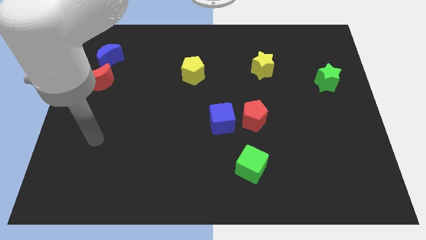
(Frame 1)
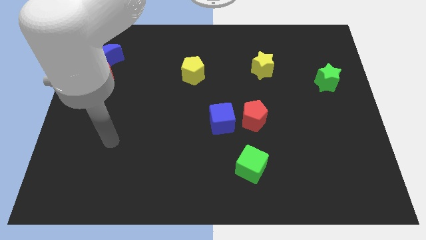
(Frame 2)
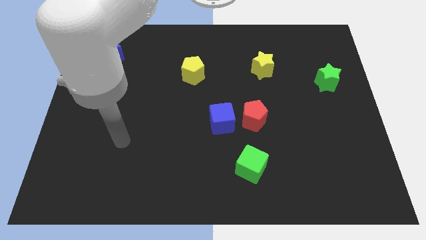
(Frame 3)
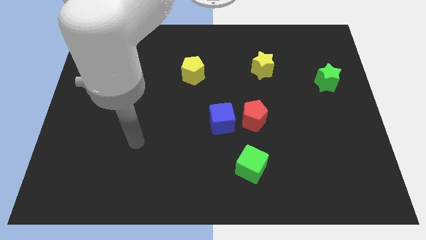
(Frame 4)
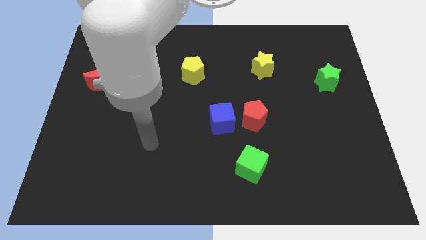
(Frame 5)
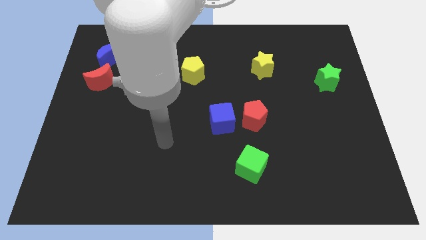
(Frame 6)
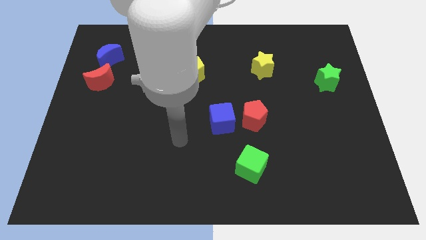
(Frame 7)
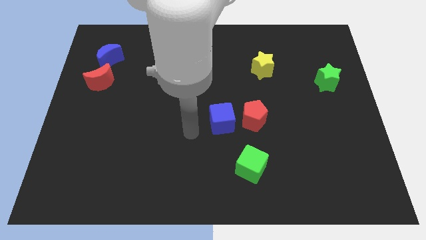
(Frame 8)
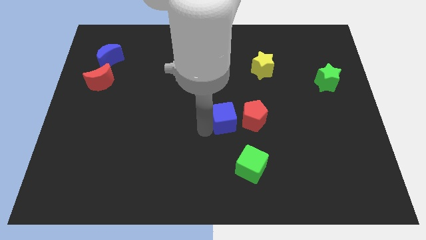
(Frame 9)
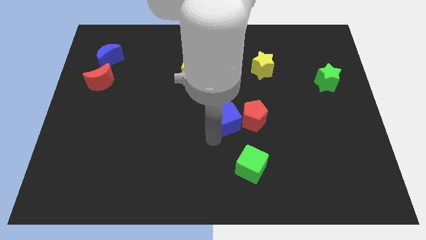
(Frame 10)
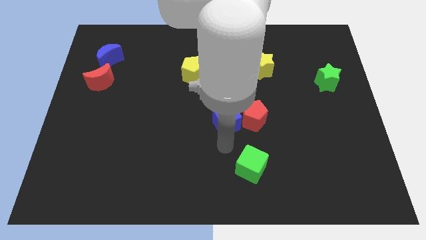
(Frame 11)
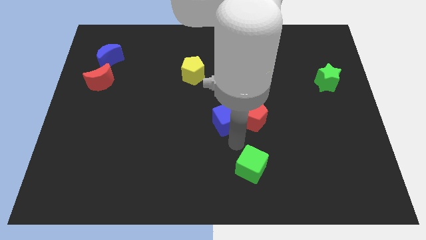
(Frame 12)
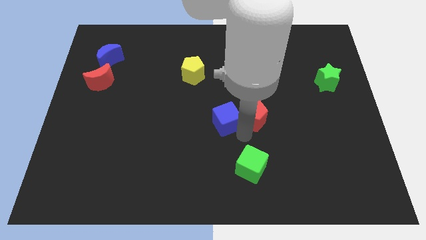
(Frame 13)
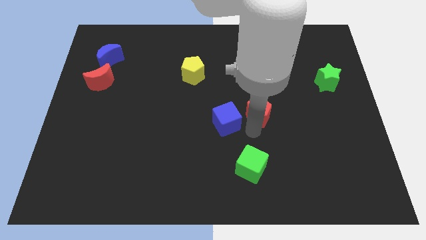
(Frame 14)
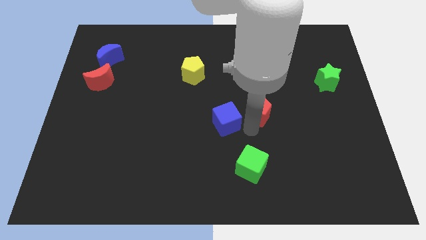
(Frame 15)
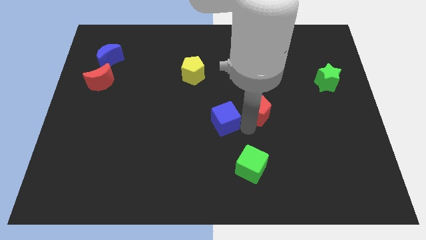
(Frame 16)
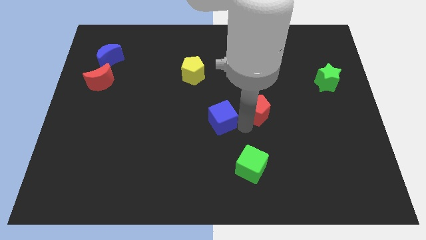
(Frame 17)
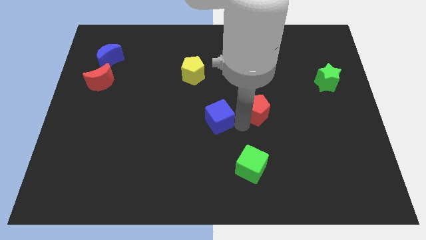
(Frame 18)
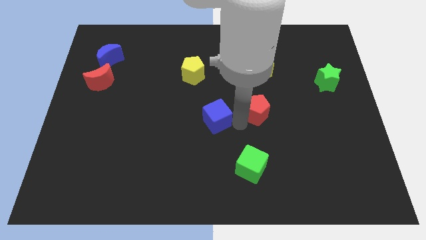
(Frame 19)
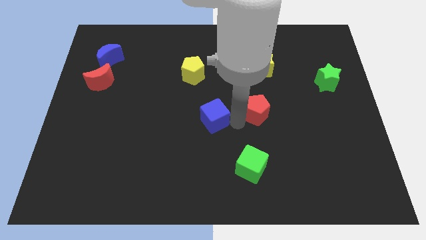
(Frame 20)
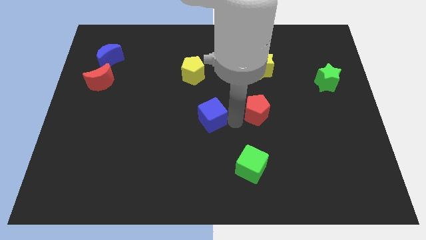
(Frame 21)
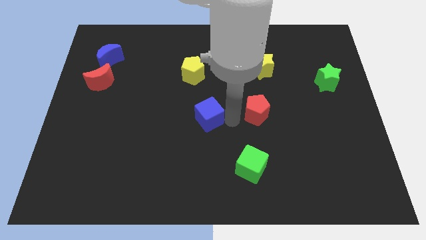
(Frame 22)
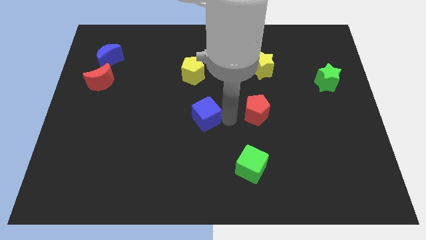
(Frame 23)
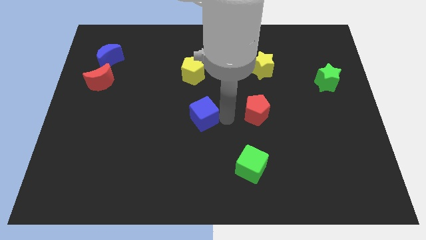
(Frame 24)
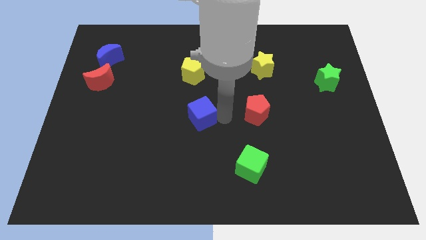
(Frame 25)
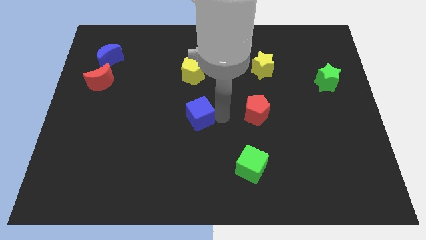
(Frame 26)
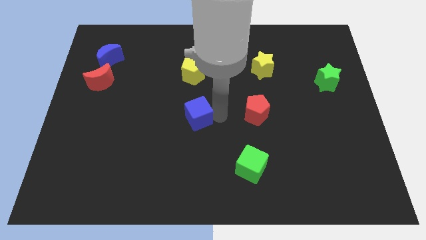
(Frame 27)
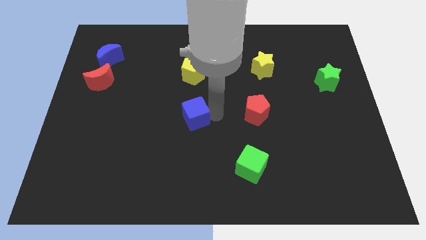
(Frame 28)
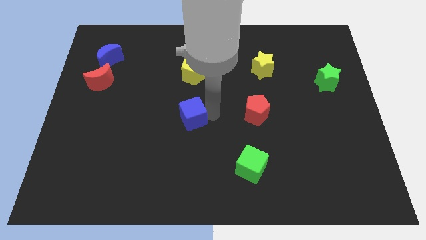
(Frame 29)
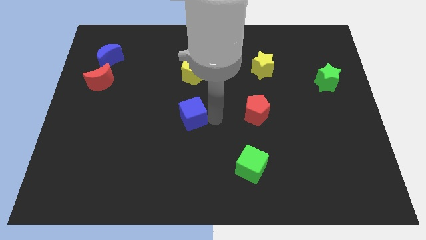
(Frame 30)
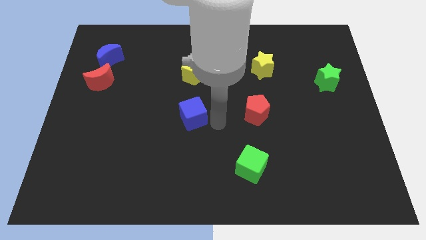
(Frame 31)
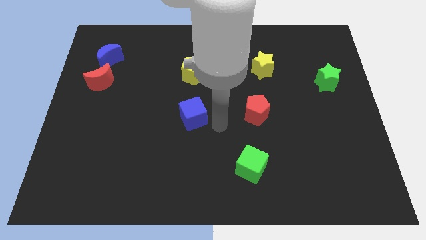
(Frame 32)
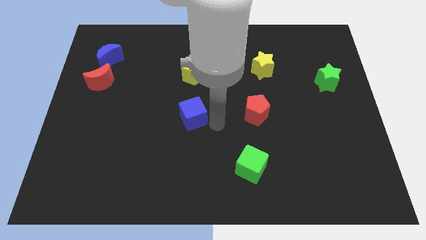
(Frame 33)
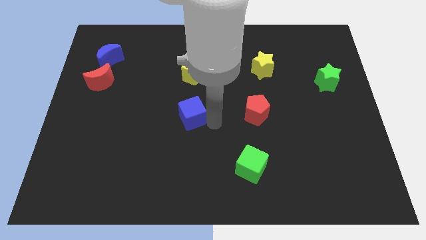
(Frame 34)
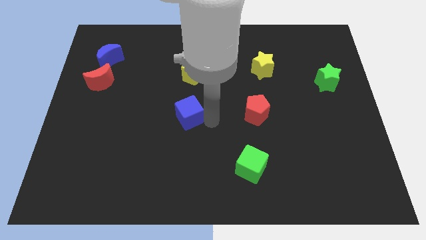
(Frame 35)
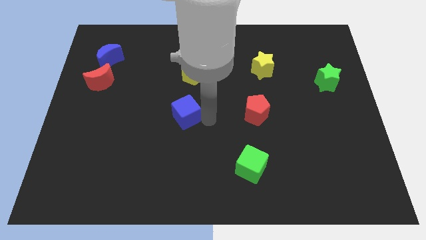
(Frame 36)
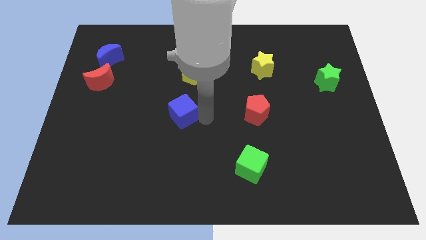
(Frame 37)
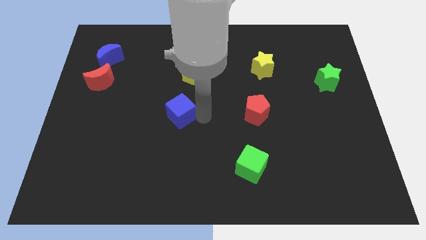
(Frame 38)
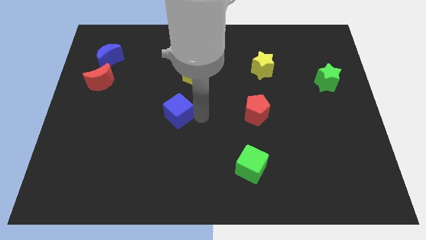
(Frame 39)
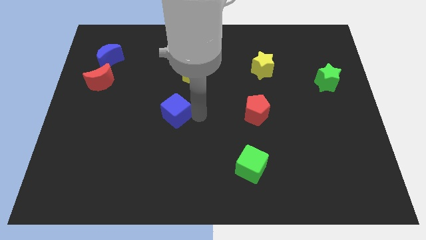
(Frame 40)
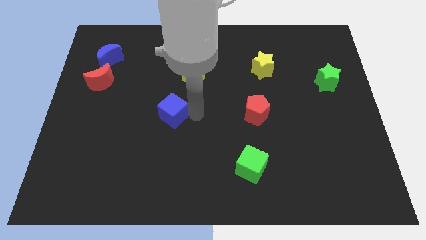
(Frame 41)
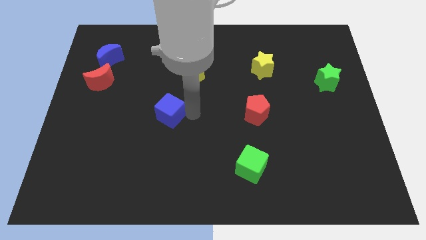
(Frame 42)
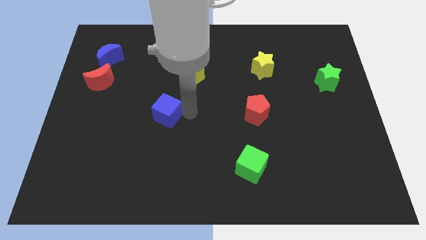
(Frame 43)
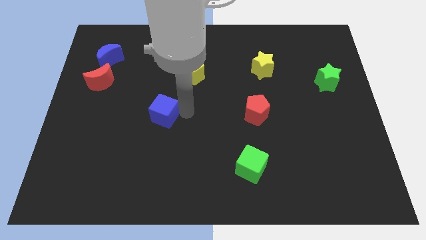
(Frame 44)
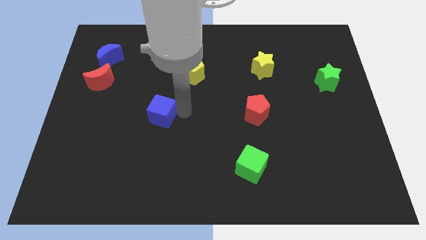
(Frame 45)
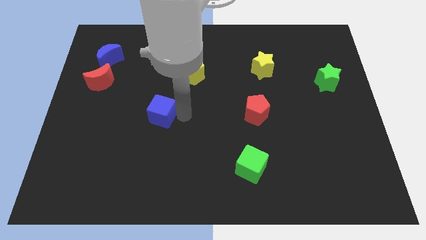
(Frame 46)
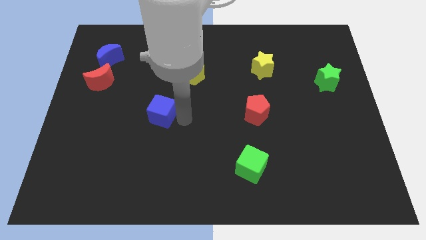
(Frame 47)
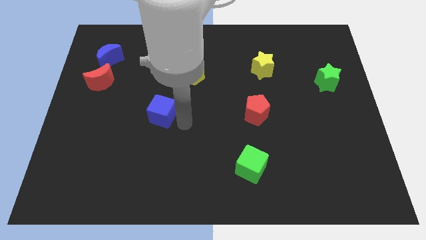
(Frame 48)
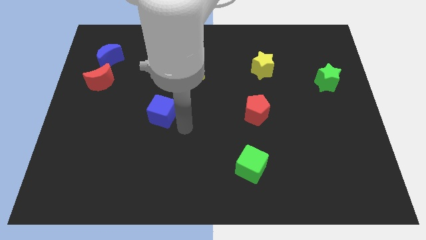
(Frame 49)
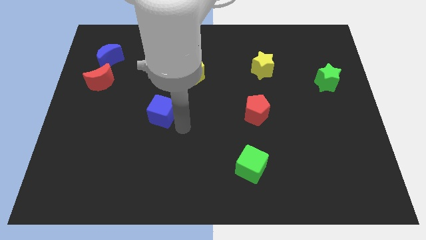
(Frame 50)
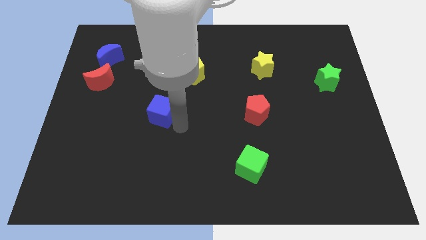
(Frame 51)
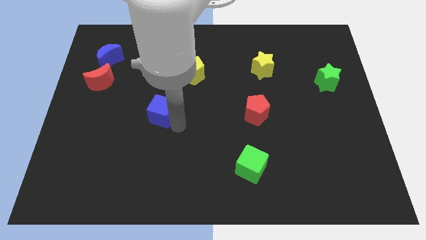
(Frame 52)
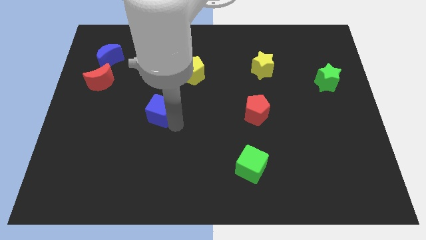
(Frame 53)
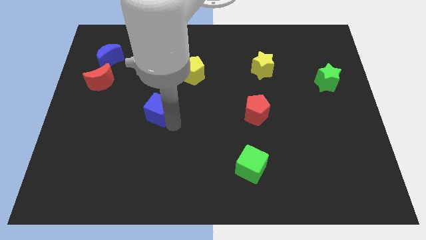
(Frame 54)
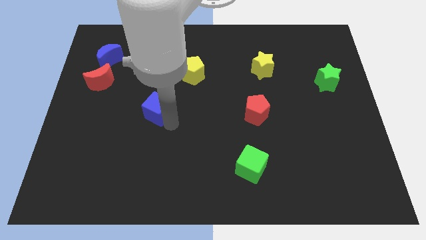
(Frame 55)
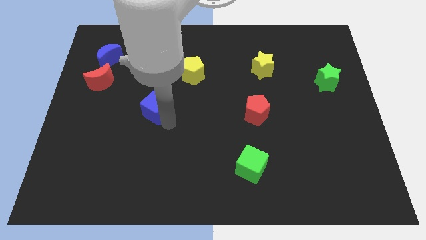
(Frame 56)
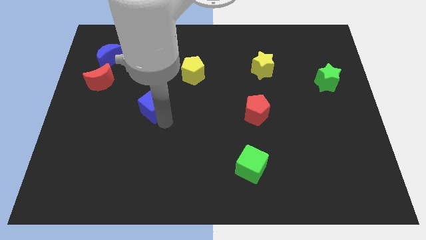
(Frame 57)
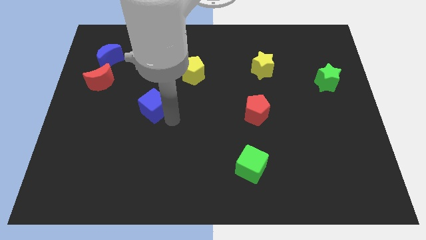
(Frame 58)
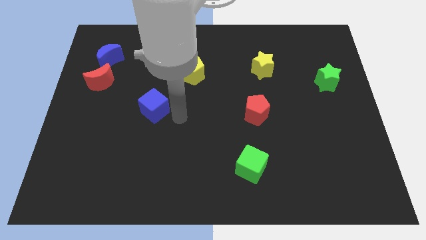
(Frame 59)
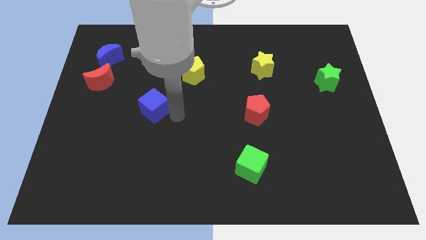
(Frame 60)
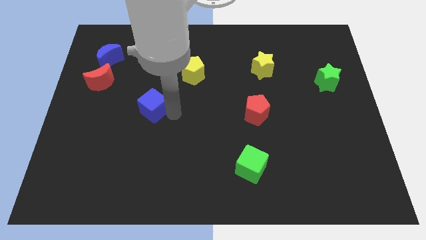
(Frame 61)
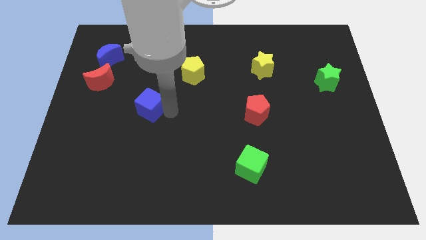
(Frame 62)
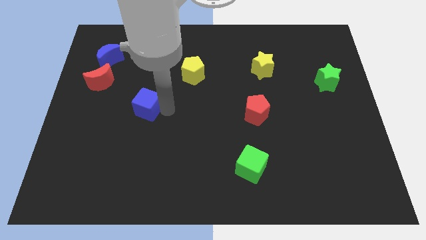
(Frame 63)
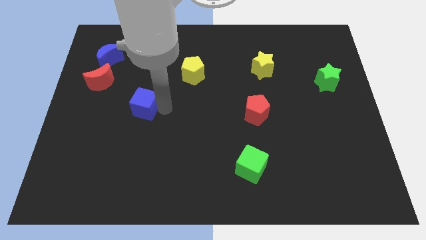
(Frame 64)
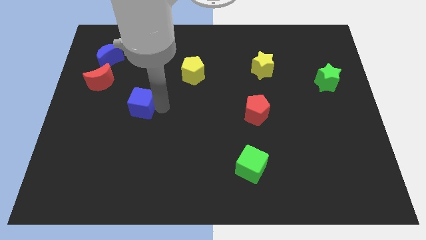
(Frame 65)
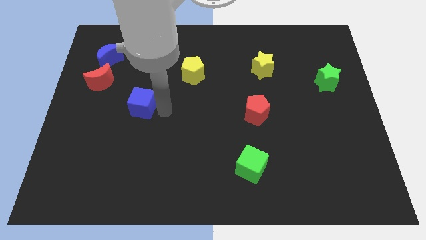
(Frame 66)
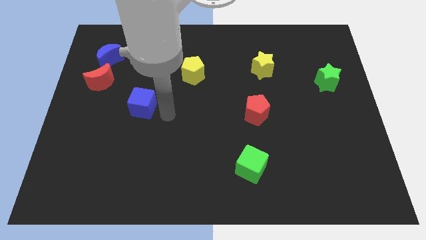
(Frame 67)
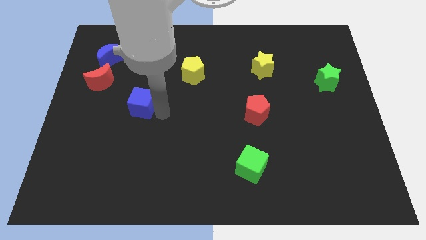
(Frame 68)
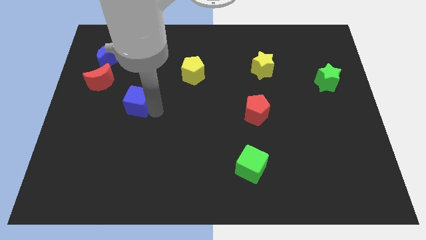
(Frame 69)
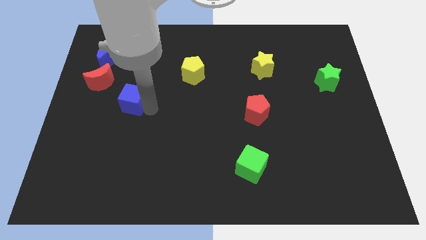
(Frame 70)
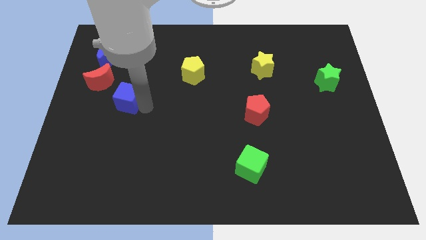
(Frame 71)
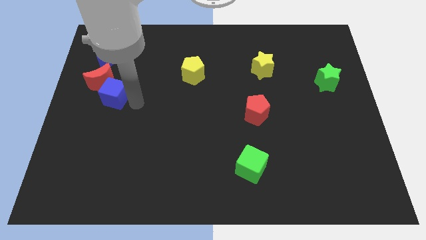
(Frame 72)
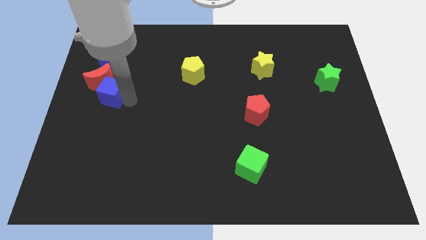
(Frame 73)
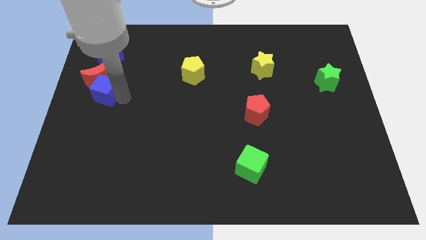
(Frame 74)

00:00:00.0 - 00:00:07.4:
move the blue cube to the left side of the board
